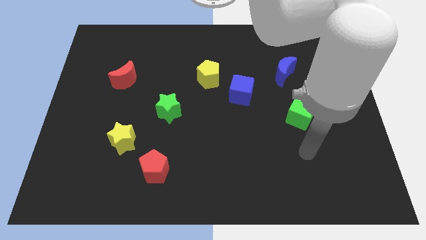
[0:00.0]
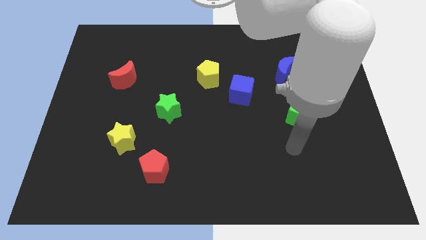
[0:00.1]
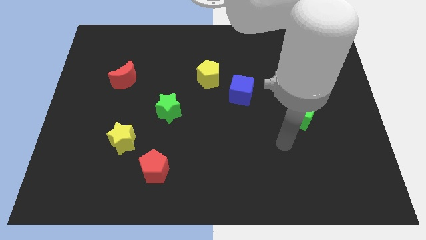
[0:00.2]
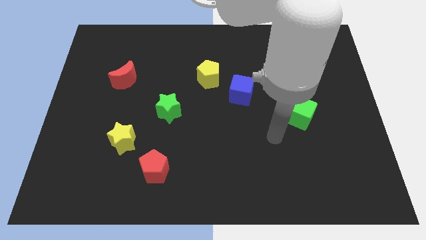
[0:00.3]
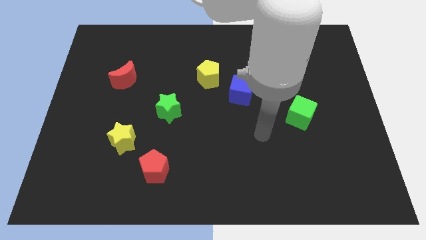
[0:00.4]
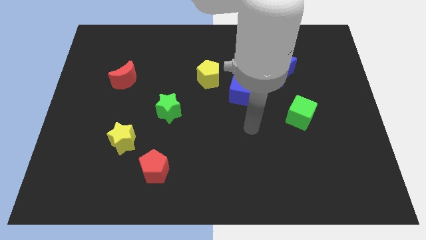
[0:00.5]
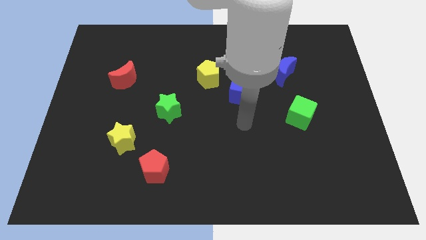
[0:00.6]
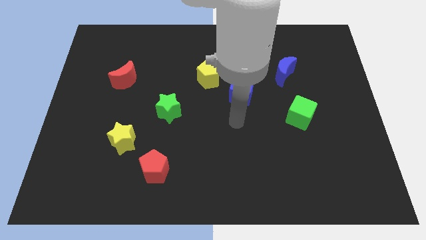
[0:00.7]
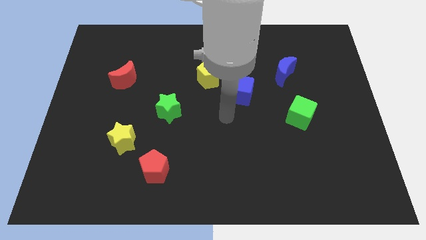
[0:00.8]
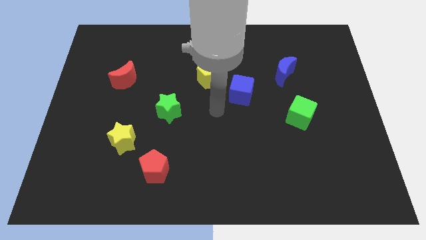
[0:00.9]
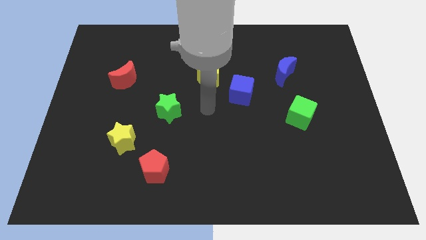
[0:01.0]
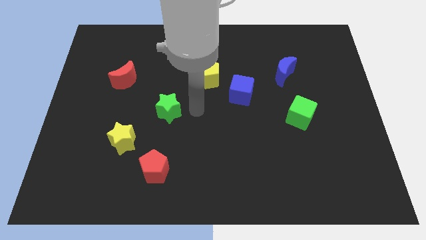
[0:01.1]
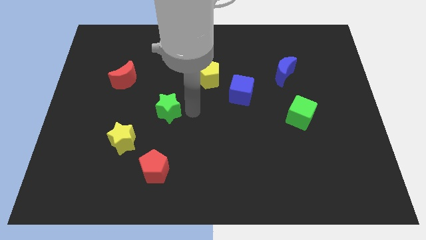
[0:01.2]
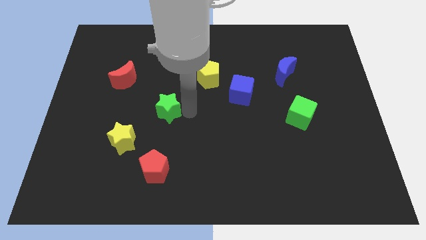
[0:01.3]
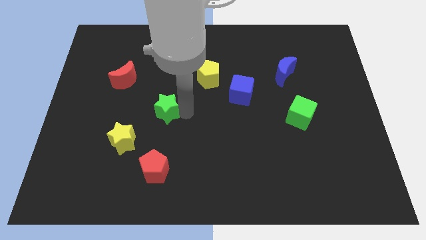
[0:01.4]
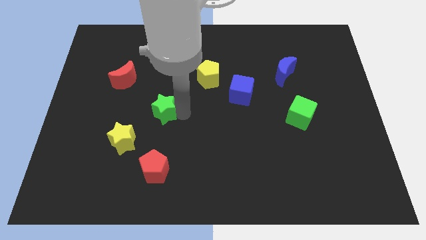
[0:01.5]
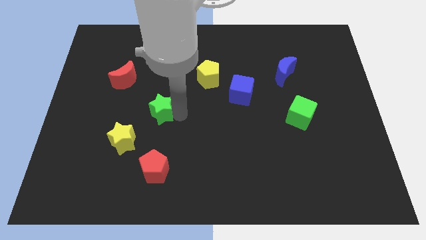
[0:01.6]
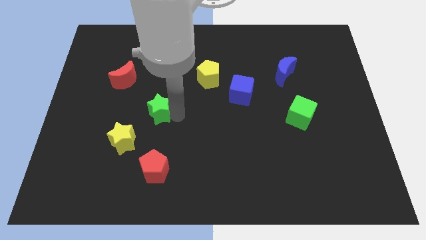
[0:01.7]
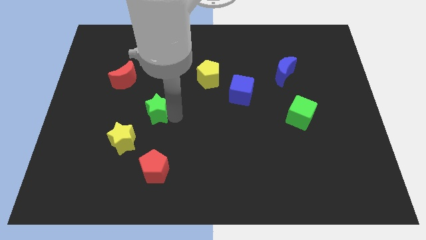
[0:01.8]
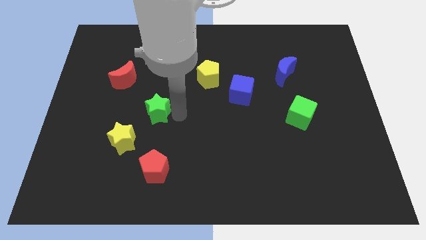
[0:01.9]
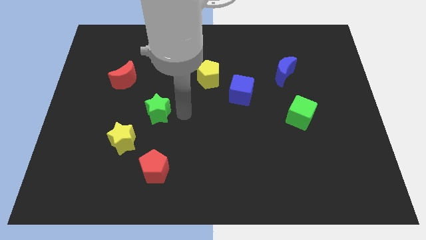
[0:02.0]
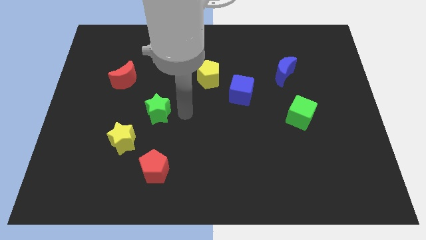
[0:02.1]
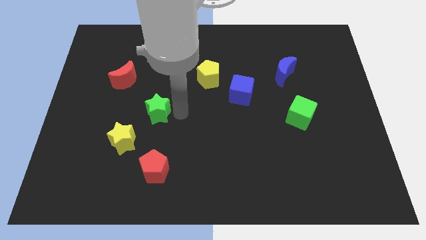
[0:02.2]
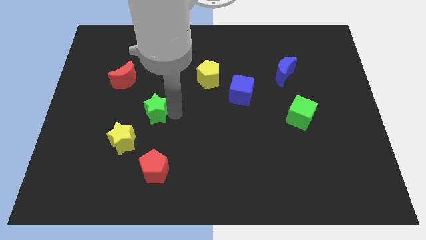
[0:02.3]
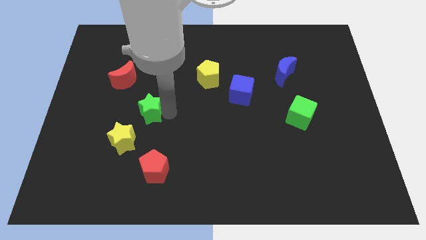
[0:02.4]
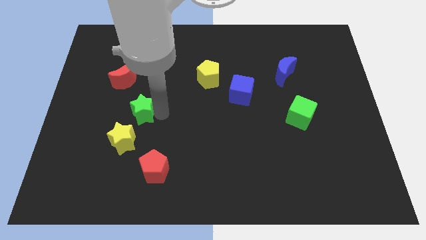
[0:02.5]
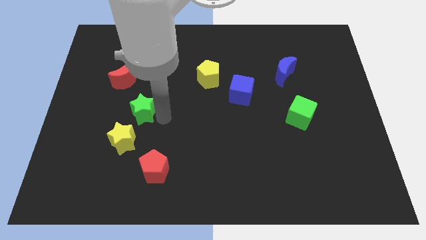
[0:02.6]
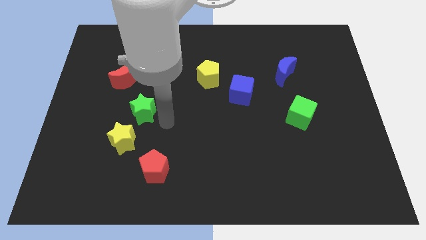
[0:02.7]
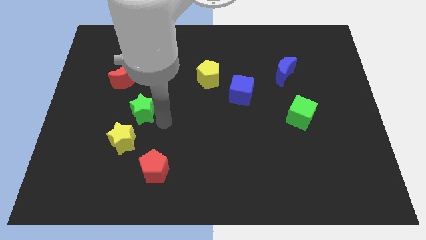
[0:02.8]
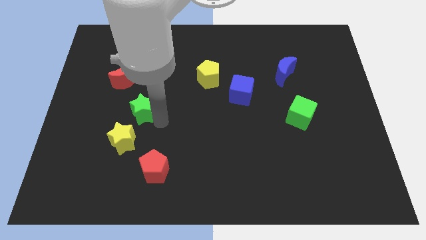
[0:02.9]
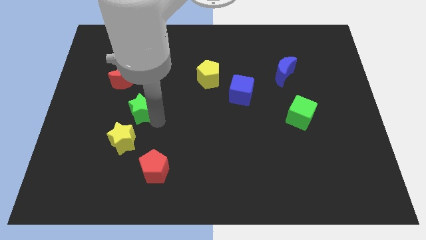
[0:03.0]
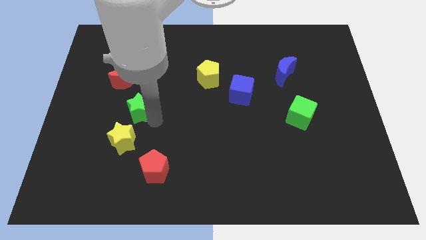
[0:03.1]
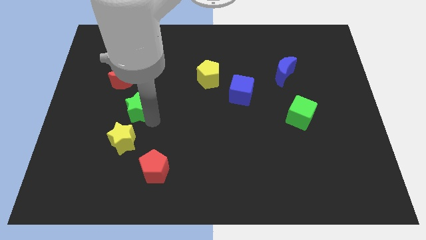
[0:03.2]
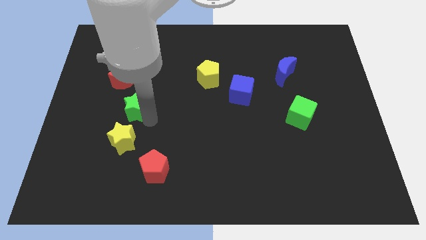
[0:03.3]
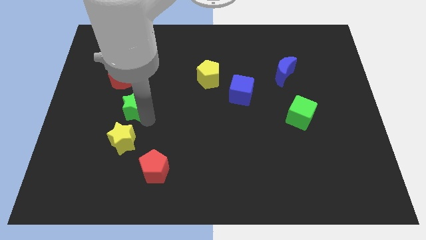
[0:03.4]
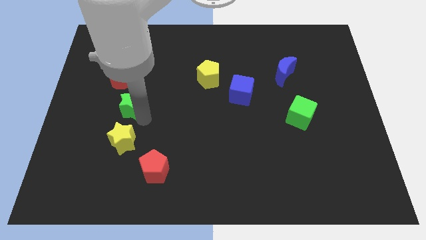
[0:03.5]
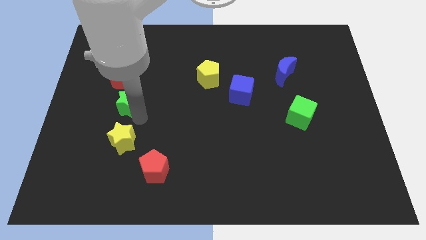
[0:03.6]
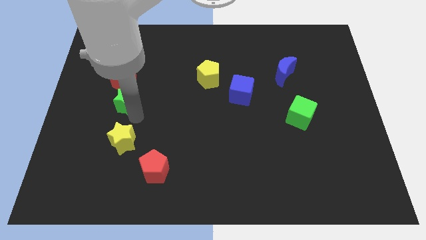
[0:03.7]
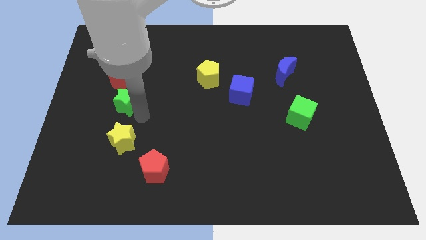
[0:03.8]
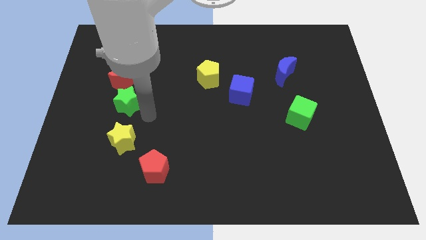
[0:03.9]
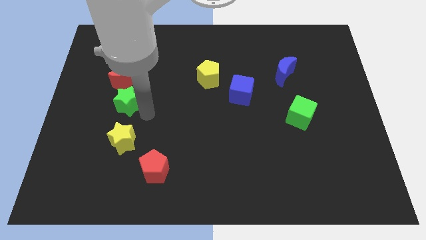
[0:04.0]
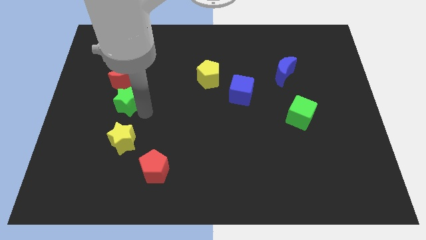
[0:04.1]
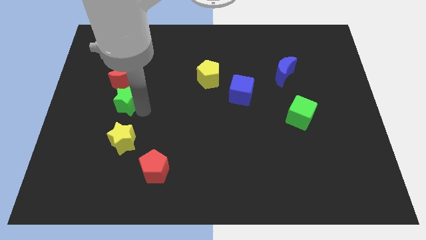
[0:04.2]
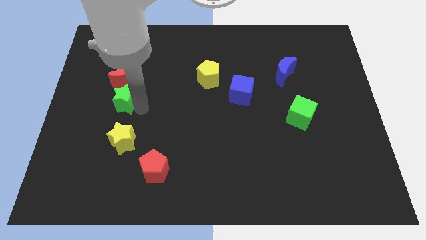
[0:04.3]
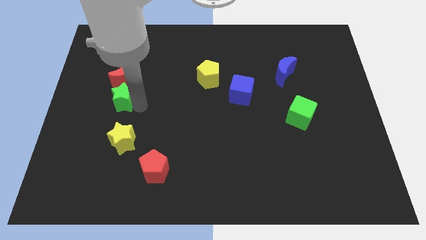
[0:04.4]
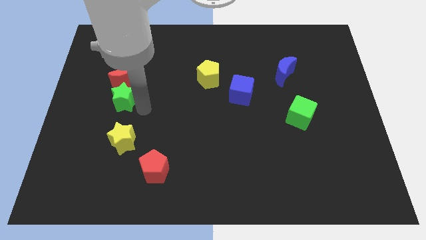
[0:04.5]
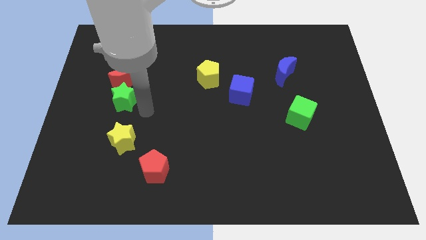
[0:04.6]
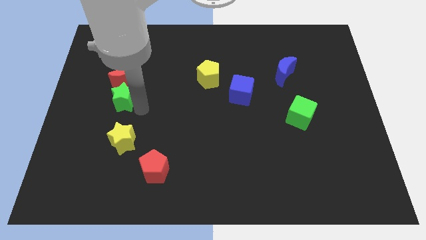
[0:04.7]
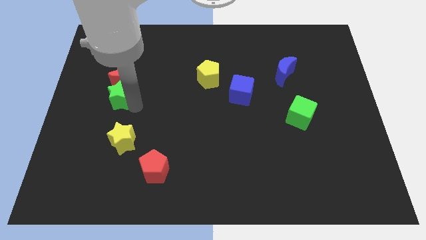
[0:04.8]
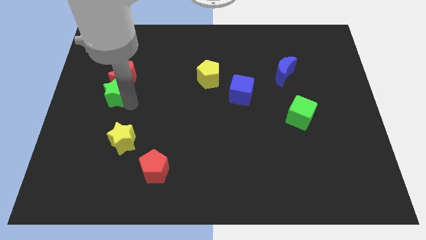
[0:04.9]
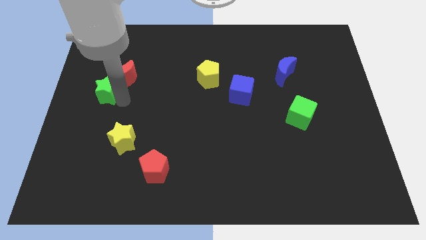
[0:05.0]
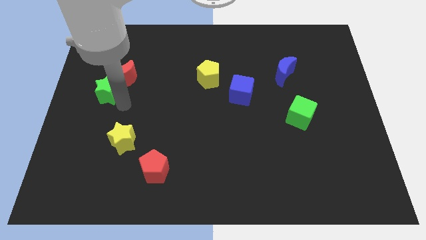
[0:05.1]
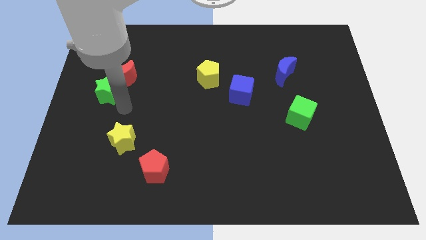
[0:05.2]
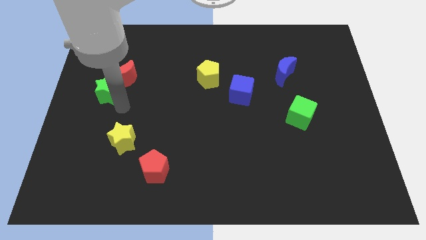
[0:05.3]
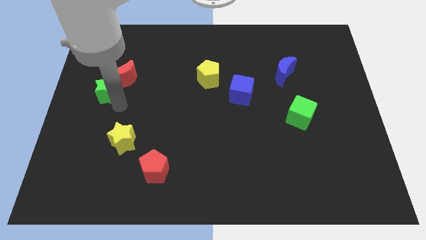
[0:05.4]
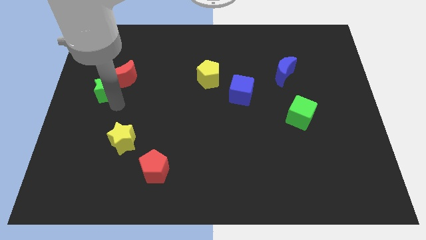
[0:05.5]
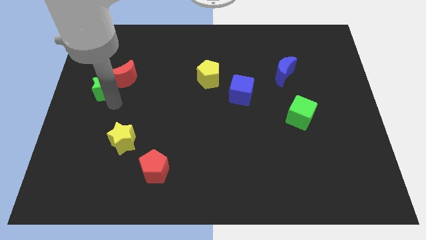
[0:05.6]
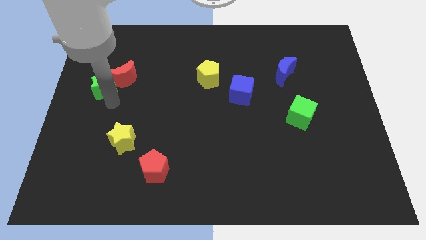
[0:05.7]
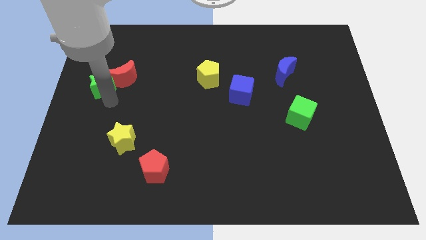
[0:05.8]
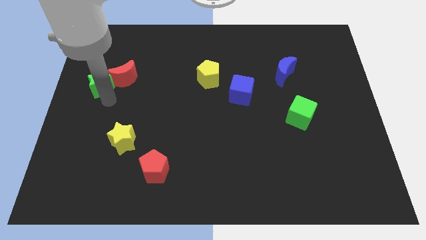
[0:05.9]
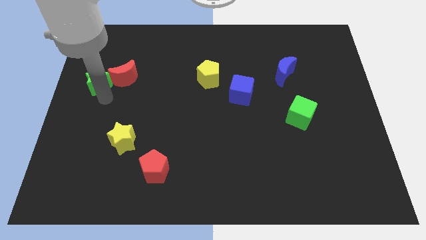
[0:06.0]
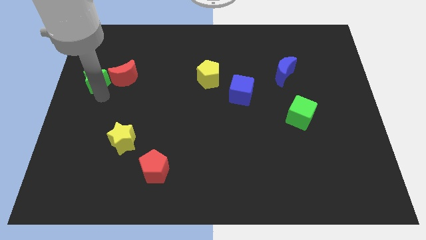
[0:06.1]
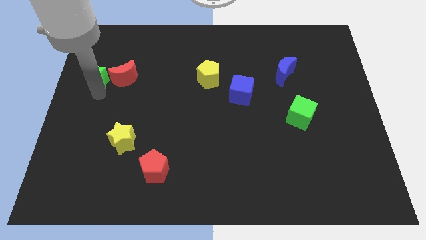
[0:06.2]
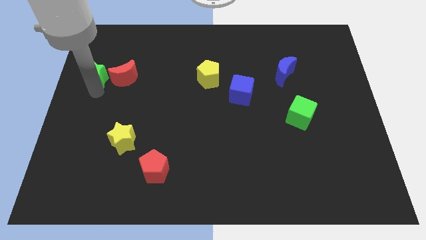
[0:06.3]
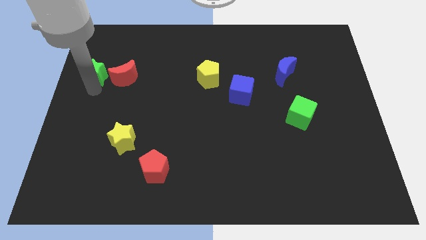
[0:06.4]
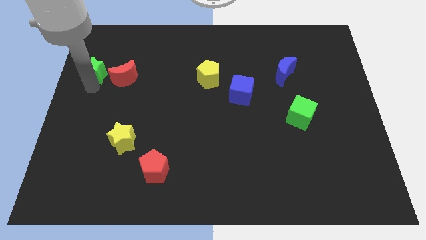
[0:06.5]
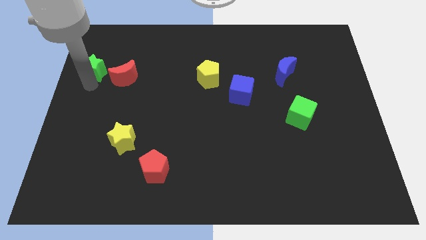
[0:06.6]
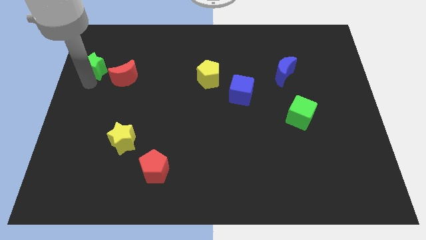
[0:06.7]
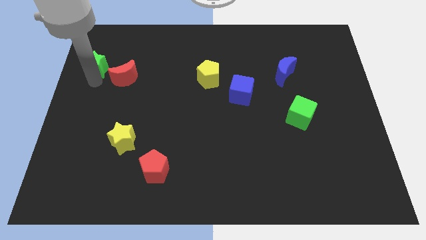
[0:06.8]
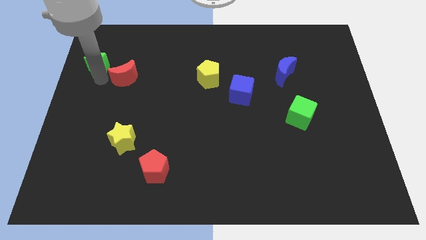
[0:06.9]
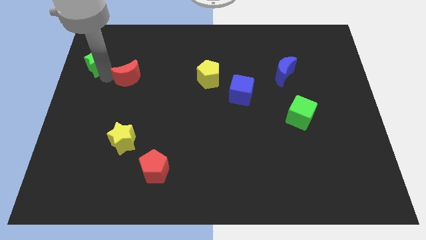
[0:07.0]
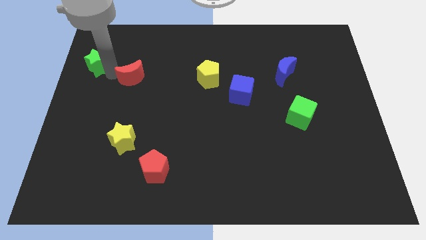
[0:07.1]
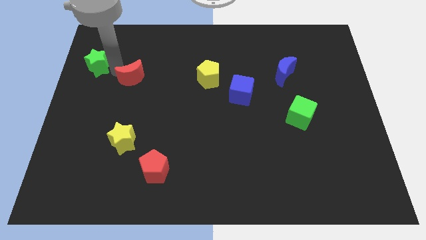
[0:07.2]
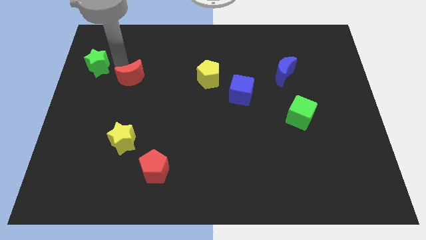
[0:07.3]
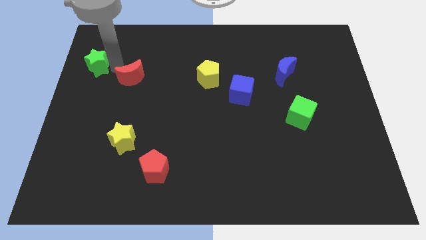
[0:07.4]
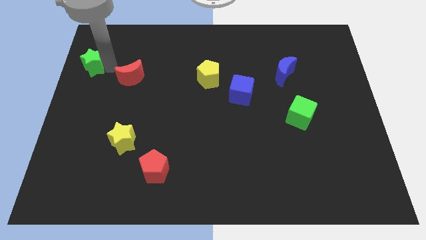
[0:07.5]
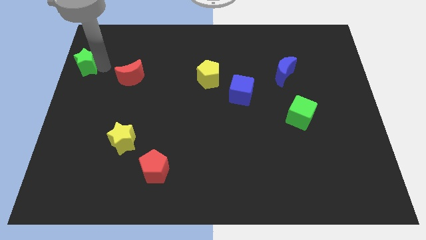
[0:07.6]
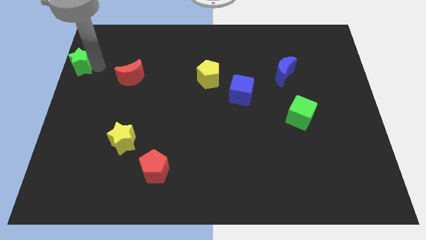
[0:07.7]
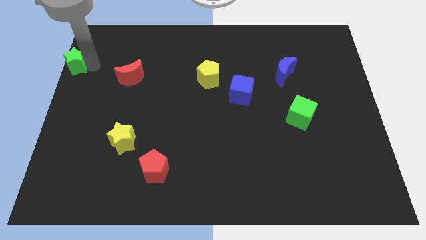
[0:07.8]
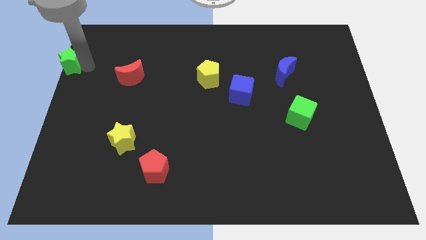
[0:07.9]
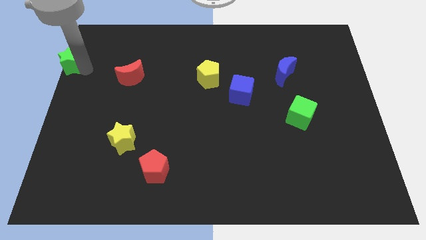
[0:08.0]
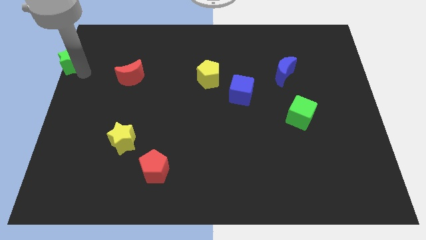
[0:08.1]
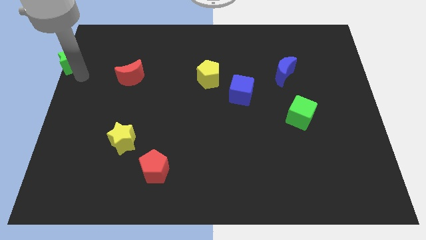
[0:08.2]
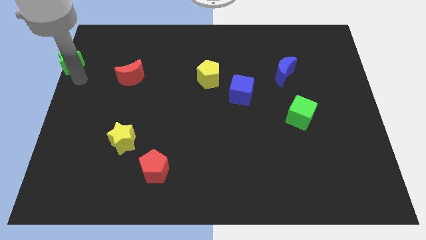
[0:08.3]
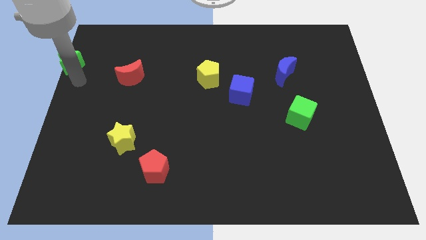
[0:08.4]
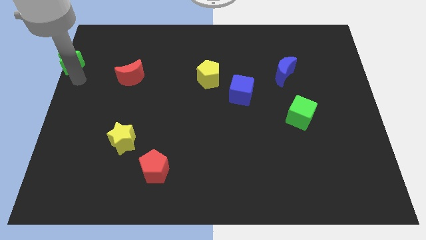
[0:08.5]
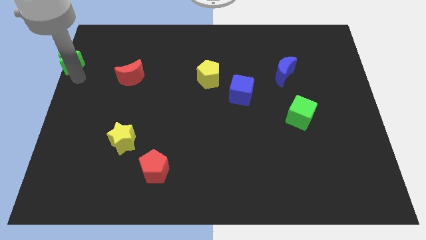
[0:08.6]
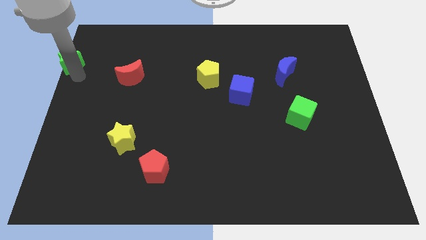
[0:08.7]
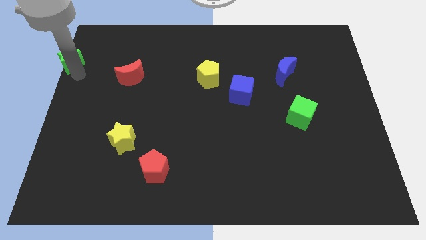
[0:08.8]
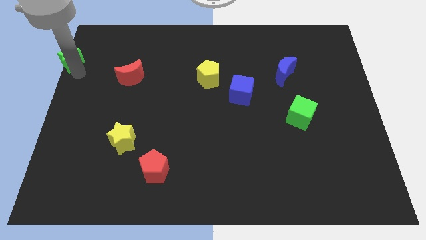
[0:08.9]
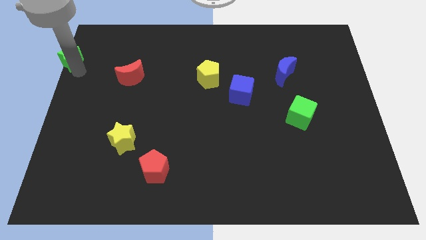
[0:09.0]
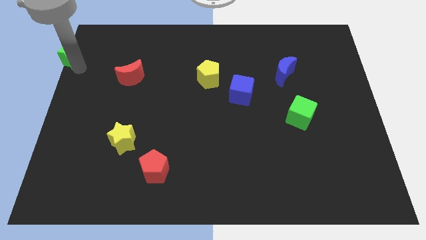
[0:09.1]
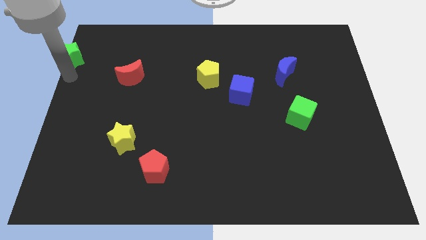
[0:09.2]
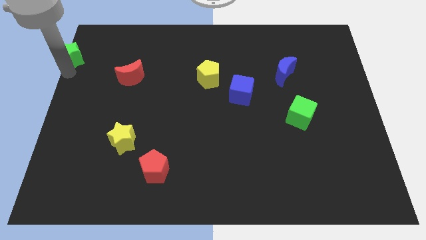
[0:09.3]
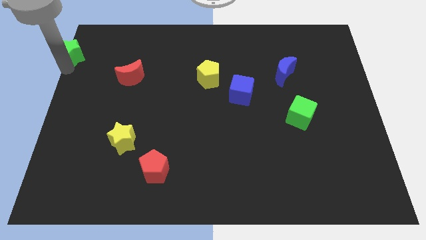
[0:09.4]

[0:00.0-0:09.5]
push the green star to the top left of the board
